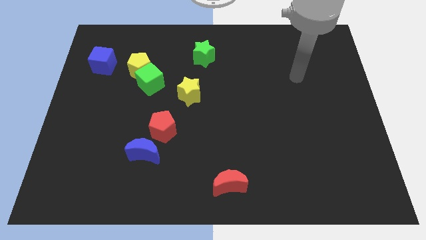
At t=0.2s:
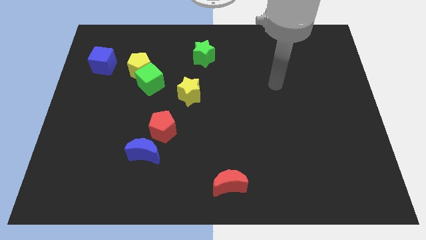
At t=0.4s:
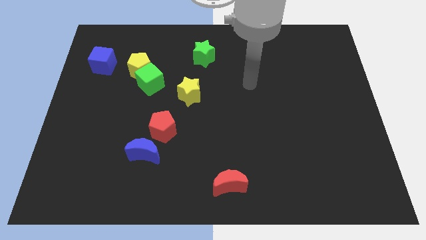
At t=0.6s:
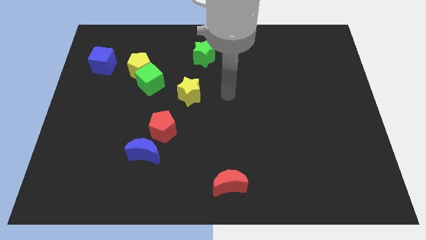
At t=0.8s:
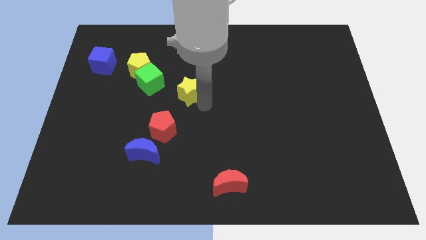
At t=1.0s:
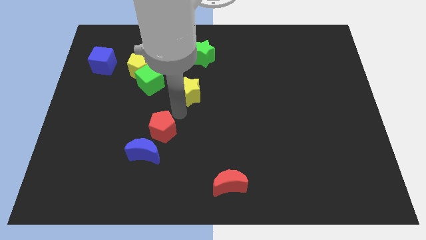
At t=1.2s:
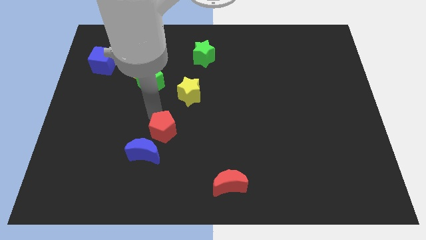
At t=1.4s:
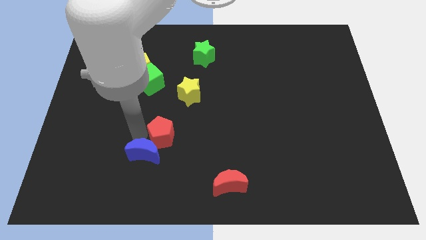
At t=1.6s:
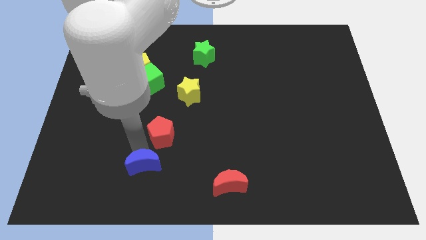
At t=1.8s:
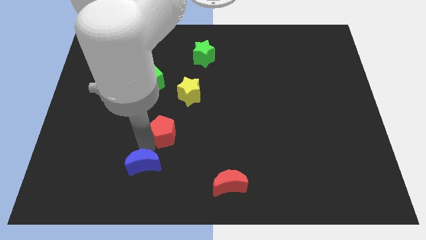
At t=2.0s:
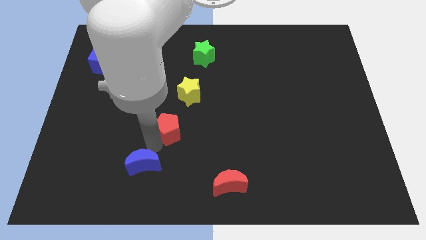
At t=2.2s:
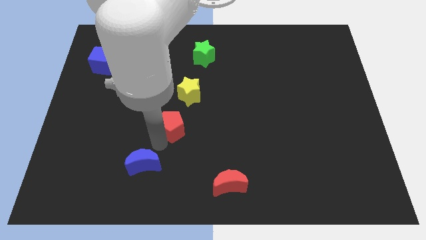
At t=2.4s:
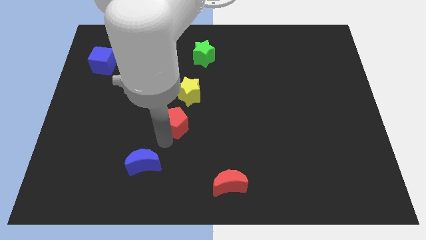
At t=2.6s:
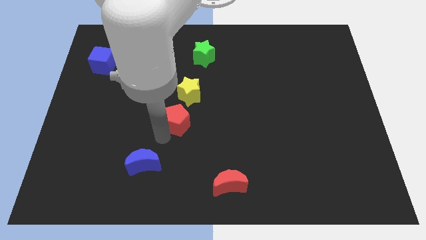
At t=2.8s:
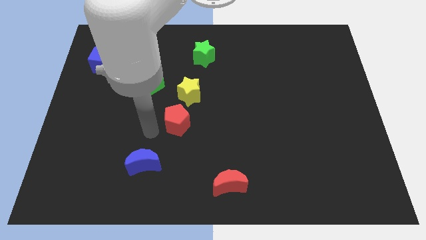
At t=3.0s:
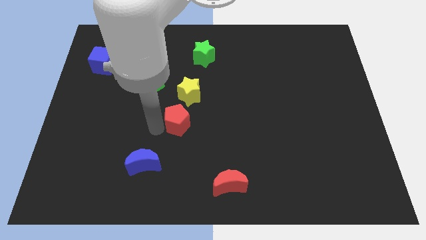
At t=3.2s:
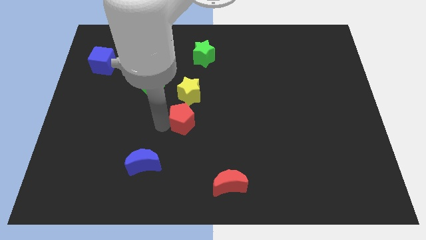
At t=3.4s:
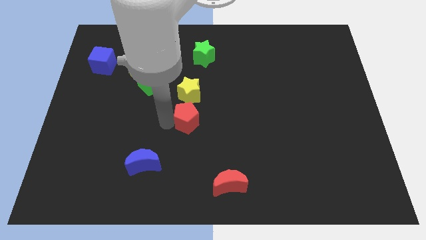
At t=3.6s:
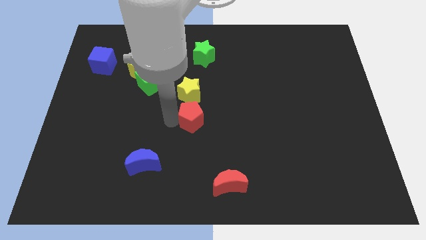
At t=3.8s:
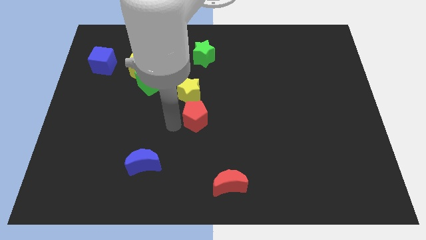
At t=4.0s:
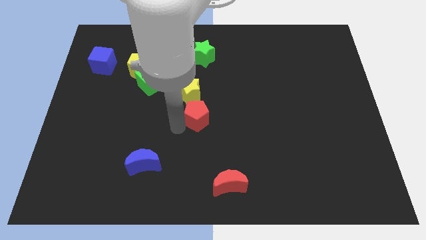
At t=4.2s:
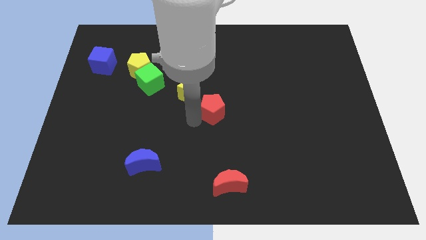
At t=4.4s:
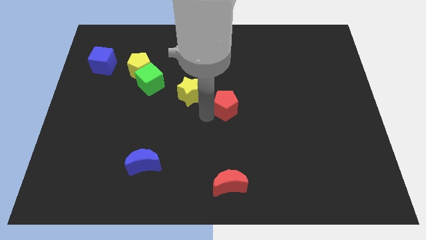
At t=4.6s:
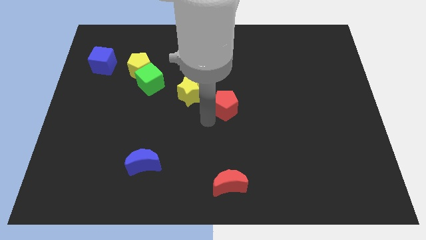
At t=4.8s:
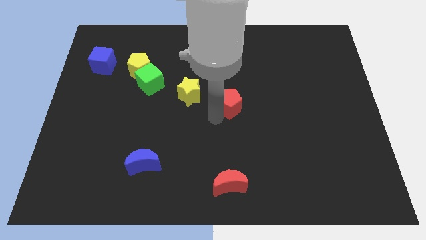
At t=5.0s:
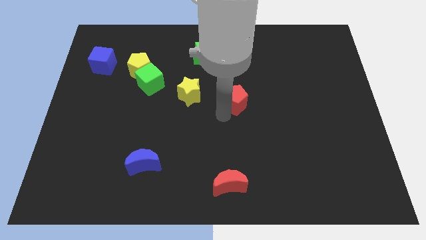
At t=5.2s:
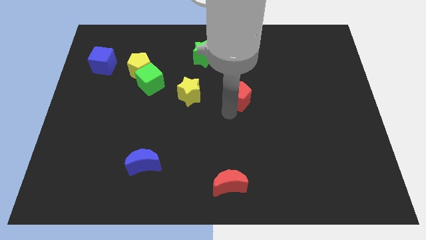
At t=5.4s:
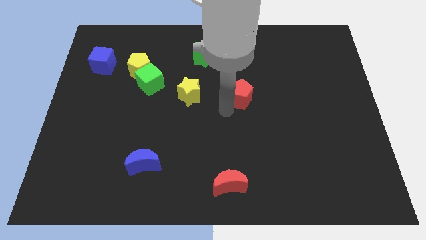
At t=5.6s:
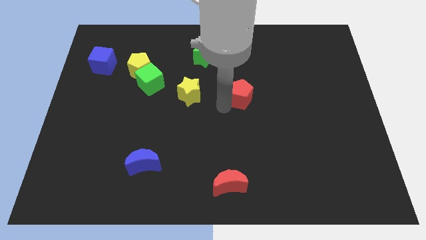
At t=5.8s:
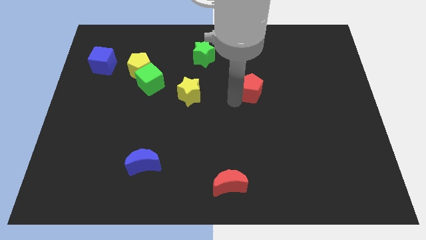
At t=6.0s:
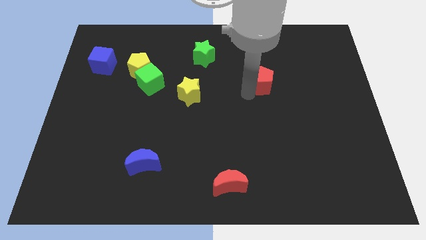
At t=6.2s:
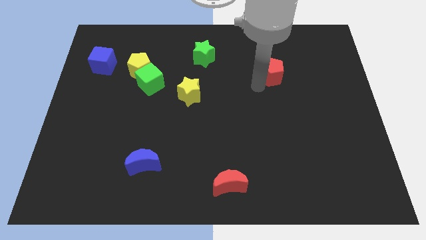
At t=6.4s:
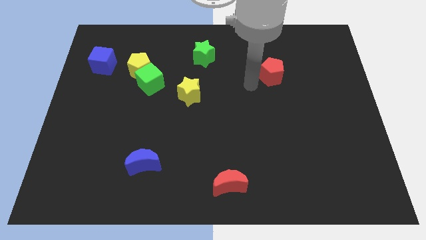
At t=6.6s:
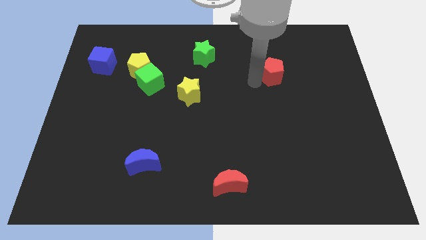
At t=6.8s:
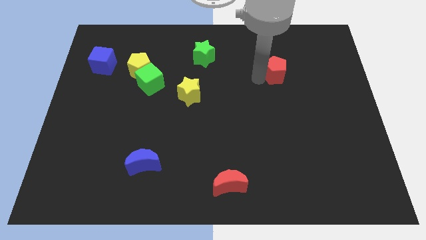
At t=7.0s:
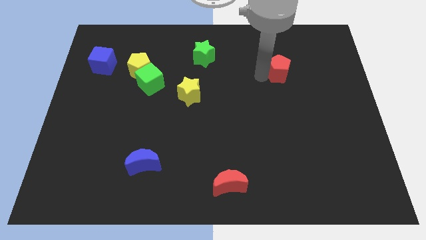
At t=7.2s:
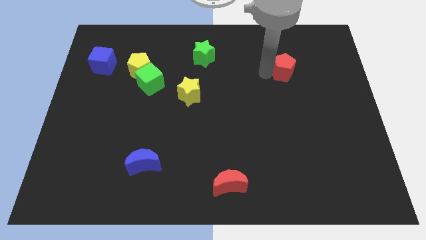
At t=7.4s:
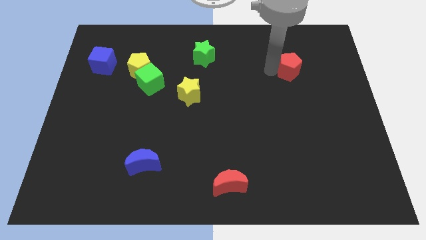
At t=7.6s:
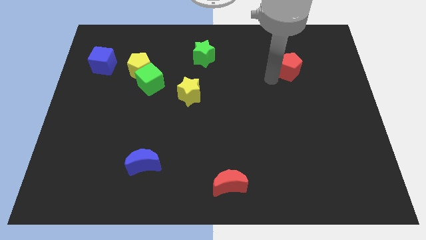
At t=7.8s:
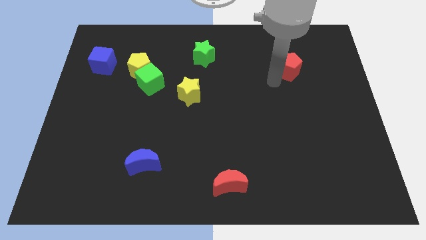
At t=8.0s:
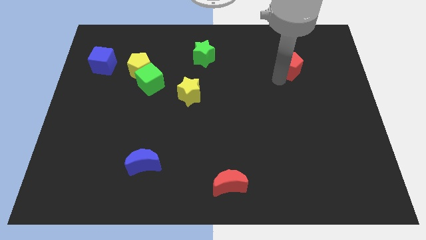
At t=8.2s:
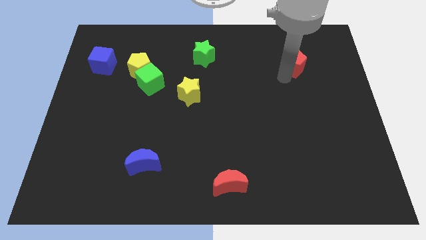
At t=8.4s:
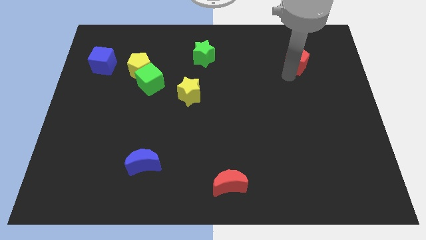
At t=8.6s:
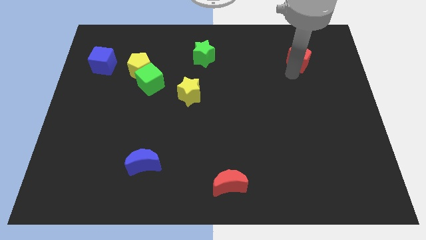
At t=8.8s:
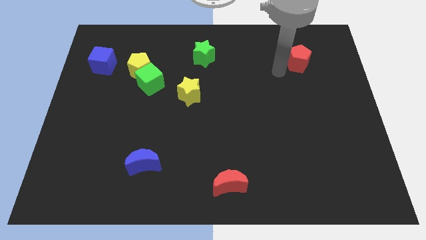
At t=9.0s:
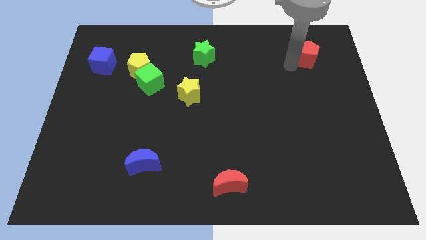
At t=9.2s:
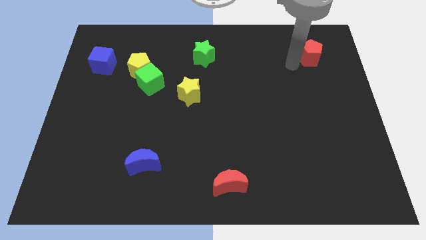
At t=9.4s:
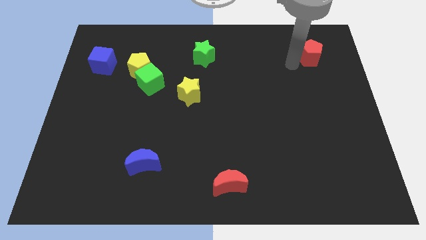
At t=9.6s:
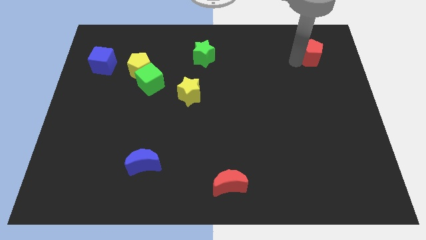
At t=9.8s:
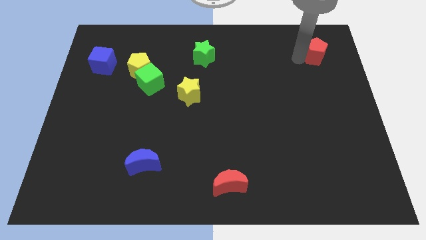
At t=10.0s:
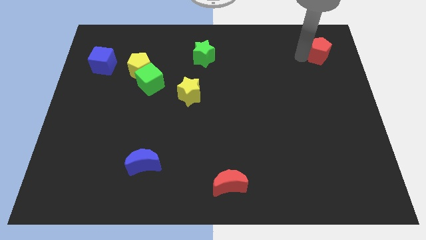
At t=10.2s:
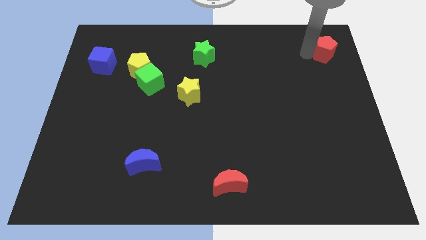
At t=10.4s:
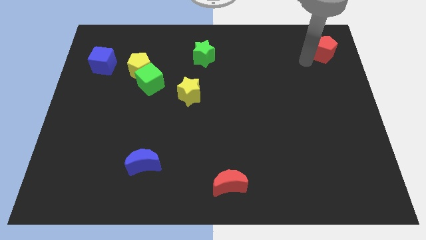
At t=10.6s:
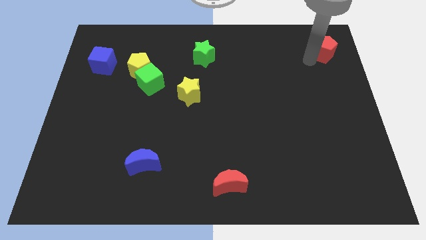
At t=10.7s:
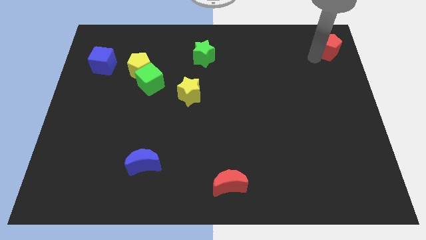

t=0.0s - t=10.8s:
push the red pentagon to the upper right corner

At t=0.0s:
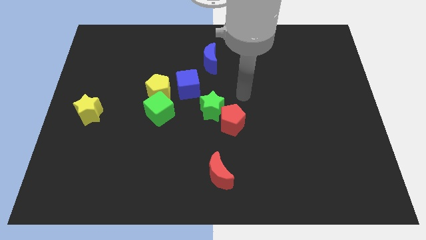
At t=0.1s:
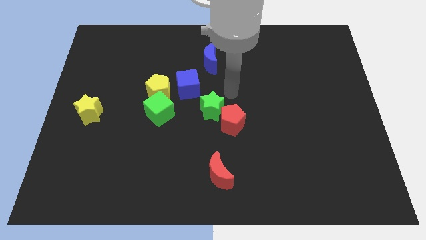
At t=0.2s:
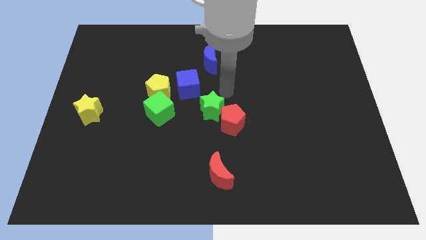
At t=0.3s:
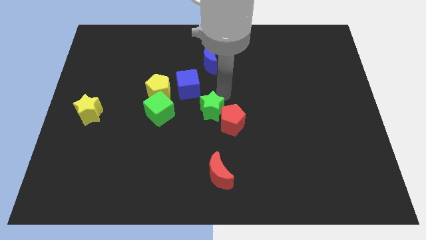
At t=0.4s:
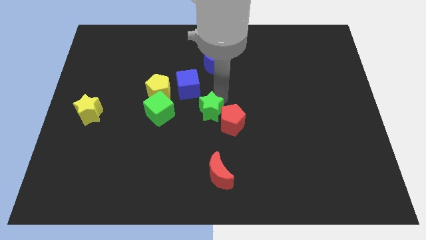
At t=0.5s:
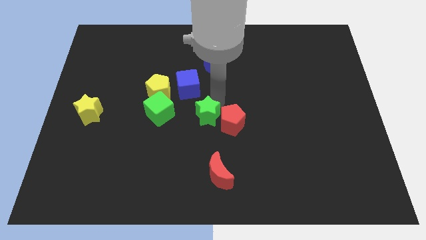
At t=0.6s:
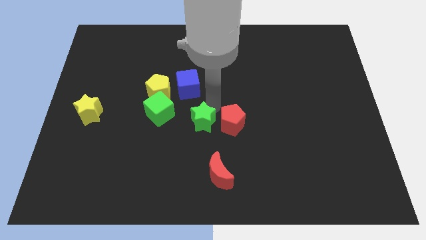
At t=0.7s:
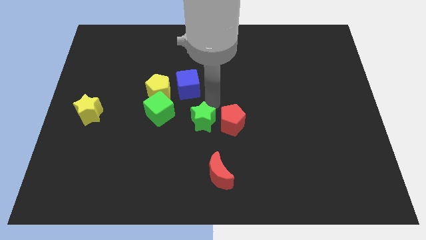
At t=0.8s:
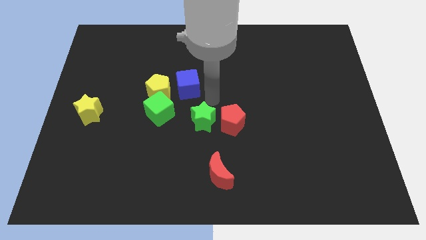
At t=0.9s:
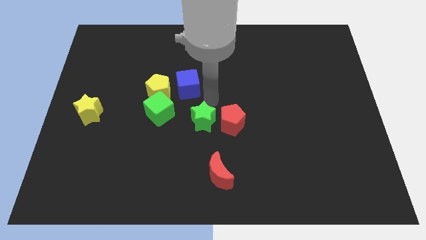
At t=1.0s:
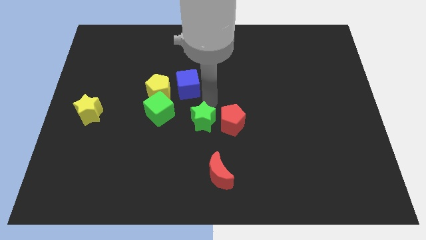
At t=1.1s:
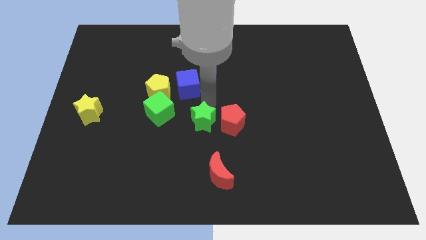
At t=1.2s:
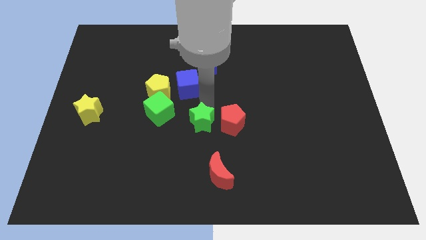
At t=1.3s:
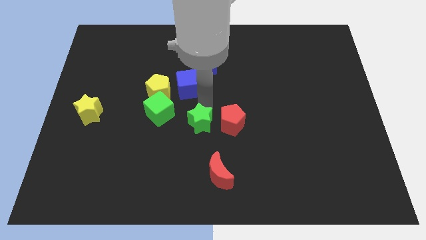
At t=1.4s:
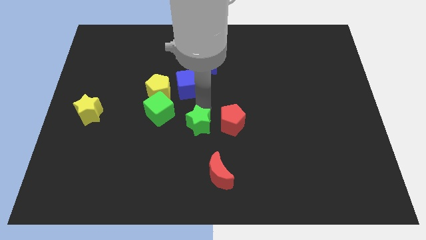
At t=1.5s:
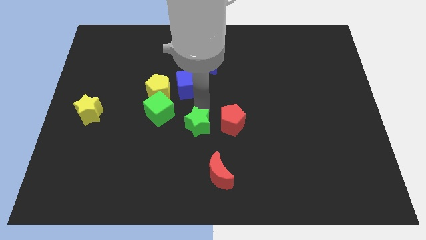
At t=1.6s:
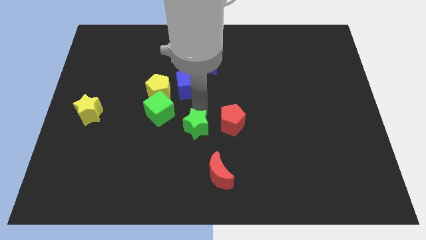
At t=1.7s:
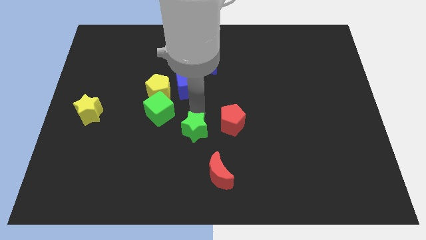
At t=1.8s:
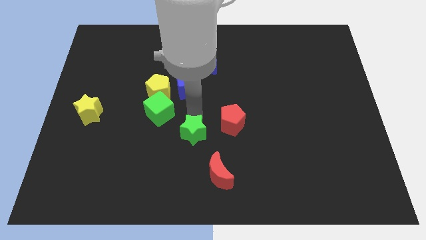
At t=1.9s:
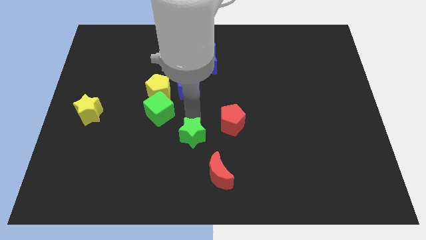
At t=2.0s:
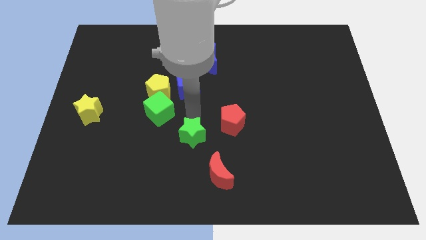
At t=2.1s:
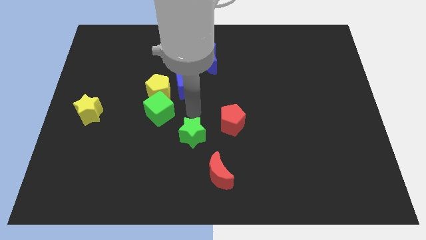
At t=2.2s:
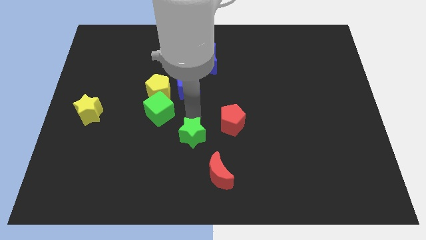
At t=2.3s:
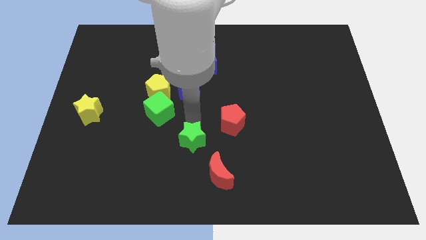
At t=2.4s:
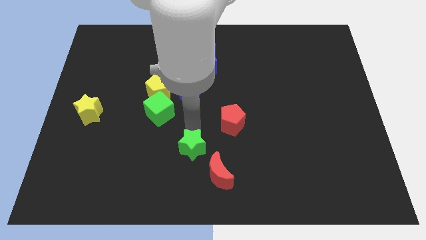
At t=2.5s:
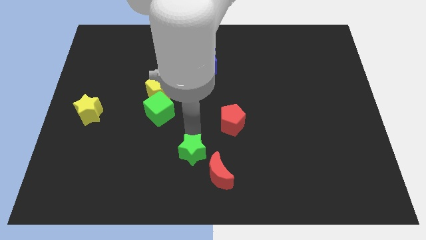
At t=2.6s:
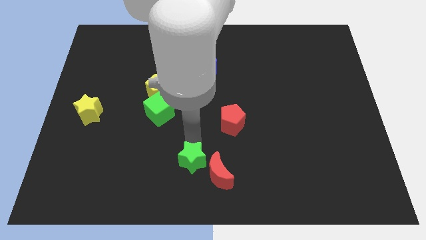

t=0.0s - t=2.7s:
push the green star to the bottom
